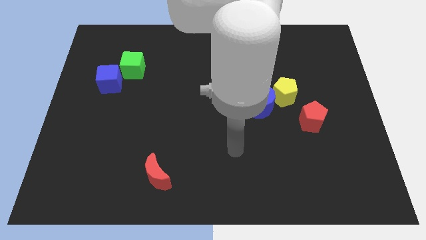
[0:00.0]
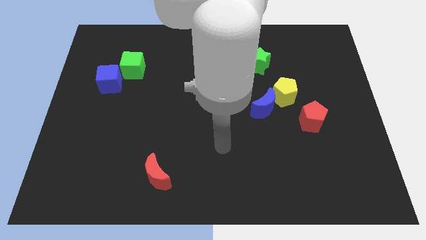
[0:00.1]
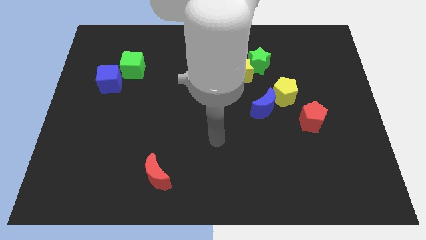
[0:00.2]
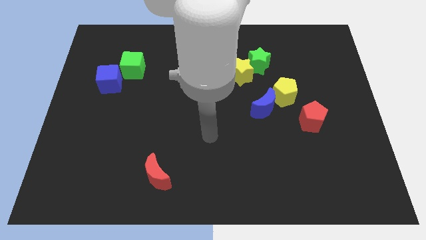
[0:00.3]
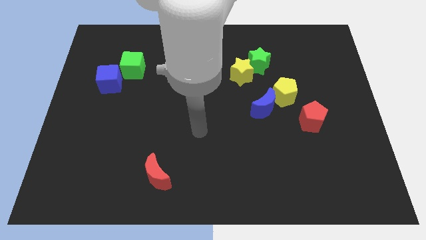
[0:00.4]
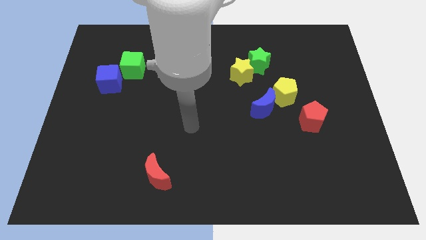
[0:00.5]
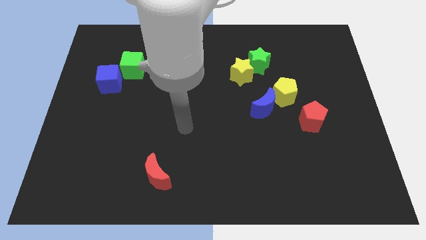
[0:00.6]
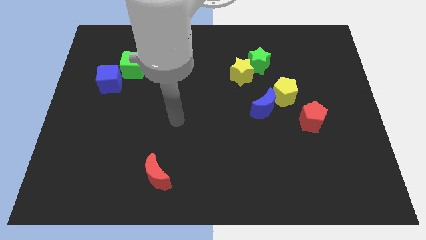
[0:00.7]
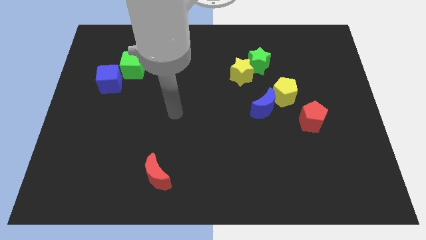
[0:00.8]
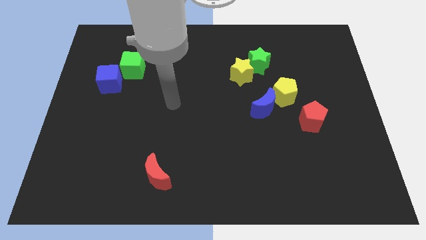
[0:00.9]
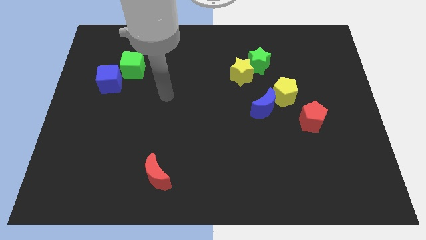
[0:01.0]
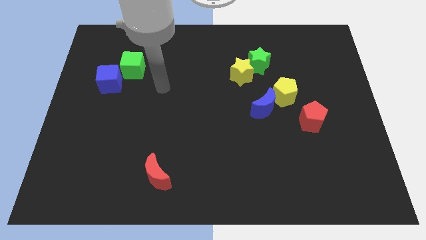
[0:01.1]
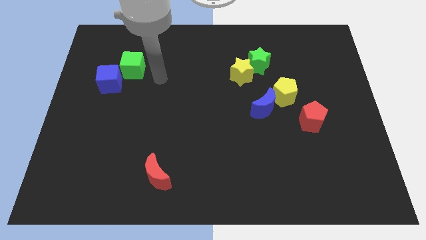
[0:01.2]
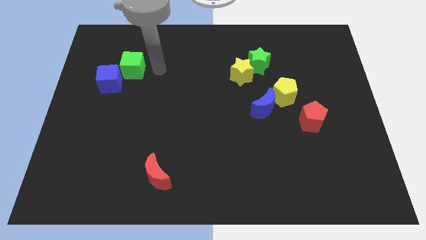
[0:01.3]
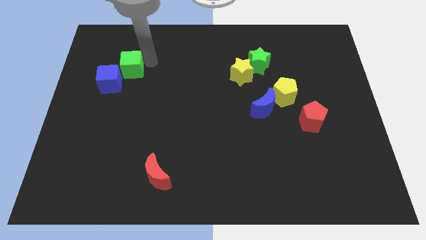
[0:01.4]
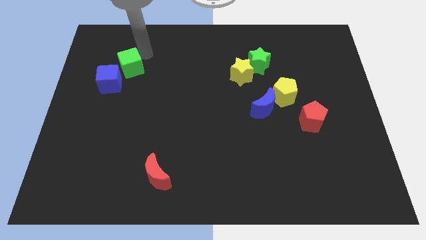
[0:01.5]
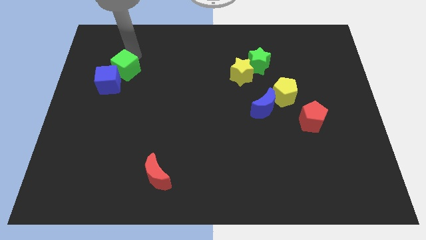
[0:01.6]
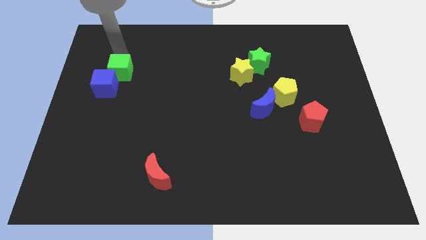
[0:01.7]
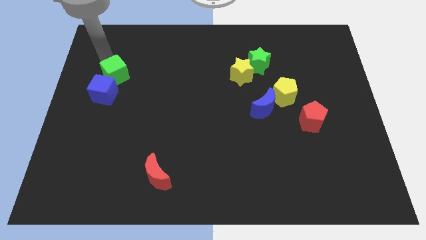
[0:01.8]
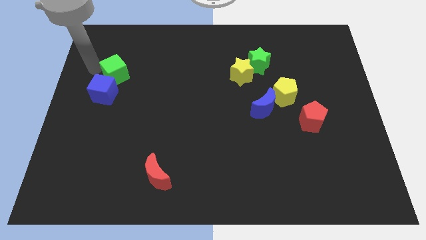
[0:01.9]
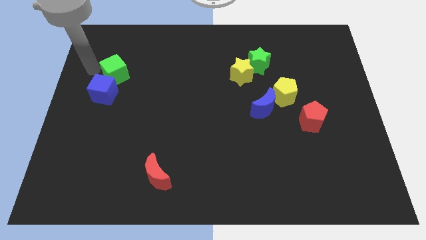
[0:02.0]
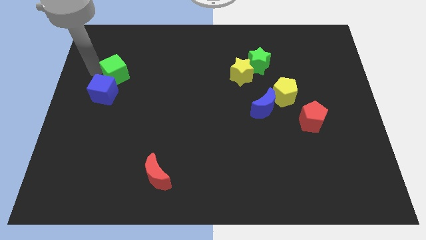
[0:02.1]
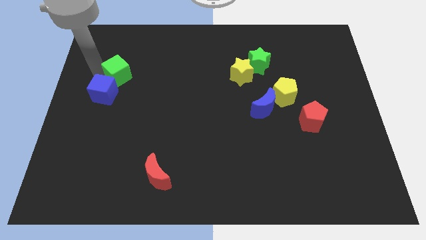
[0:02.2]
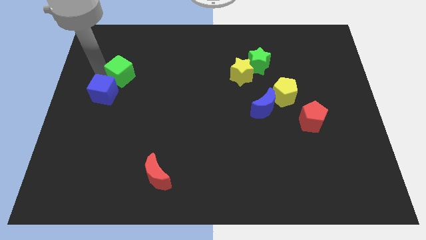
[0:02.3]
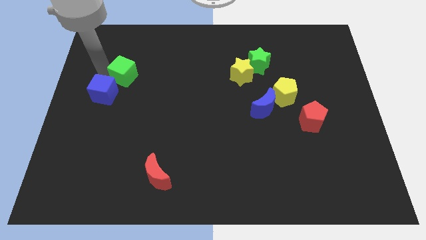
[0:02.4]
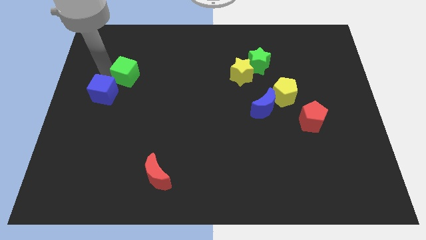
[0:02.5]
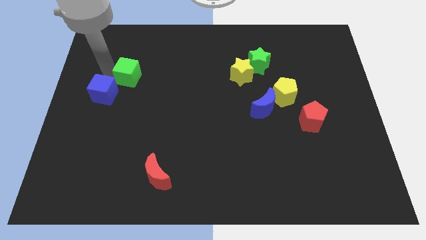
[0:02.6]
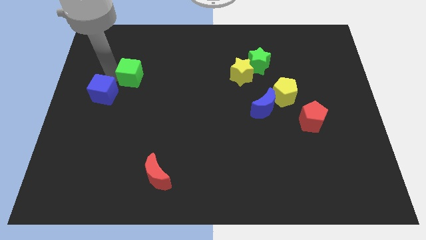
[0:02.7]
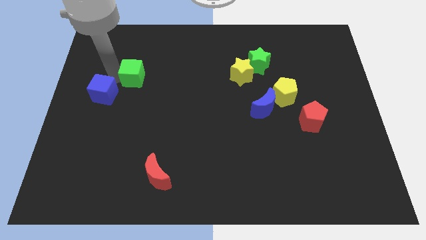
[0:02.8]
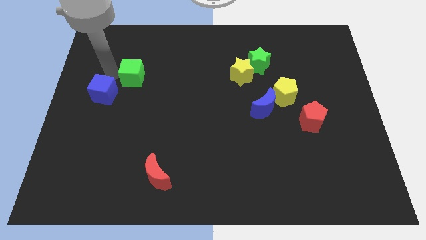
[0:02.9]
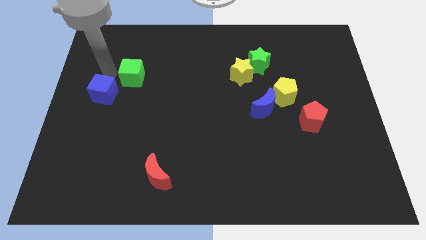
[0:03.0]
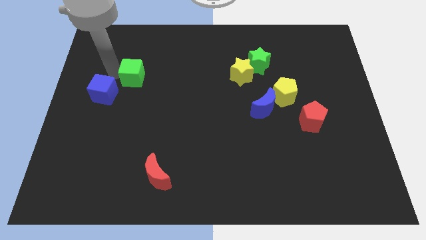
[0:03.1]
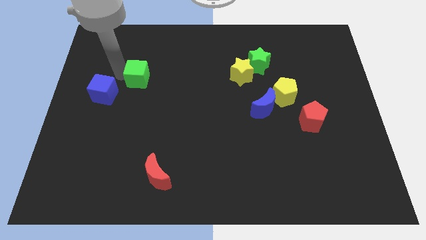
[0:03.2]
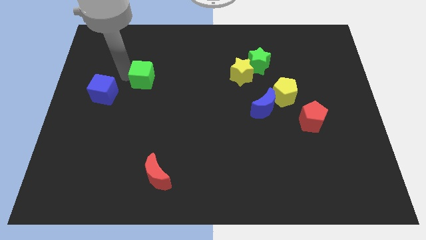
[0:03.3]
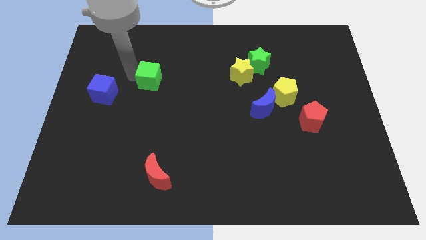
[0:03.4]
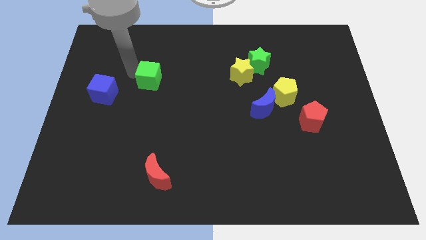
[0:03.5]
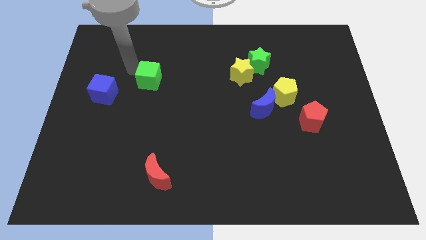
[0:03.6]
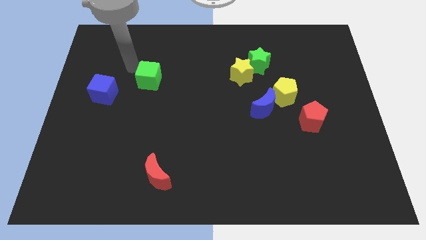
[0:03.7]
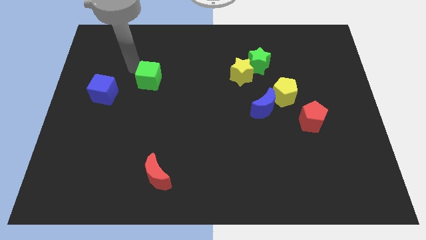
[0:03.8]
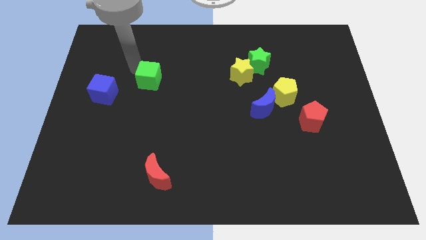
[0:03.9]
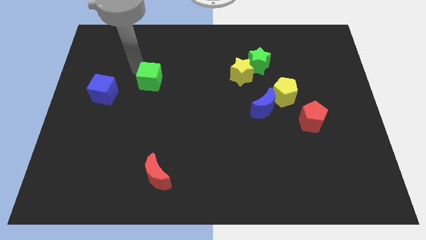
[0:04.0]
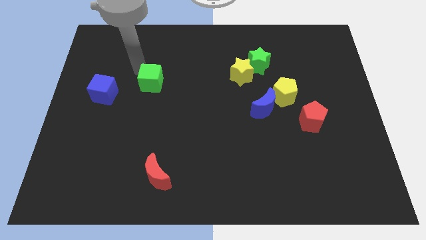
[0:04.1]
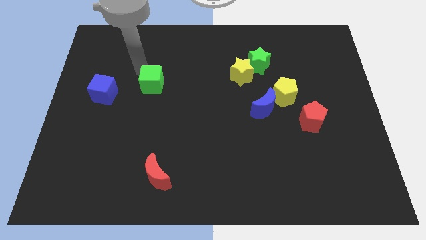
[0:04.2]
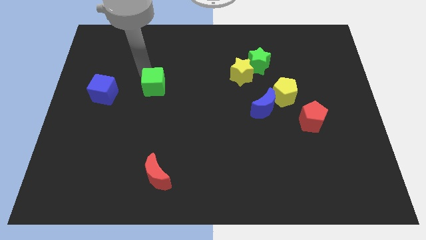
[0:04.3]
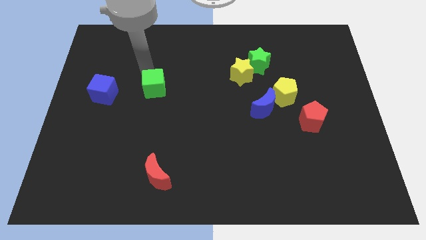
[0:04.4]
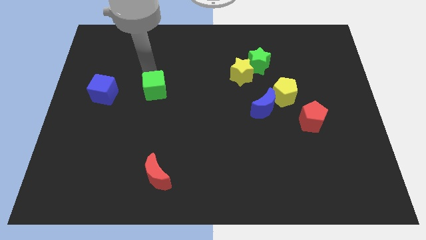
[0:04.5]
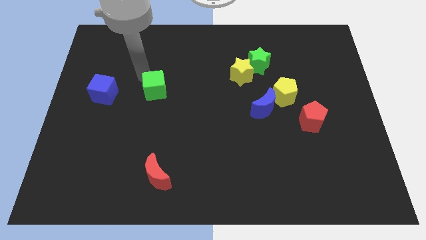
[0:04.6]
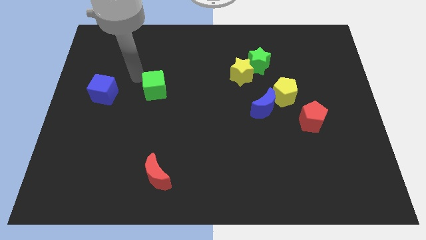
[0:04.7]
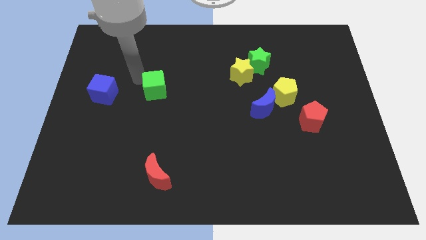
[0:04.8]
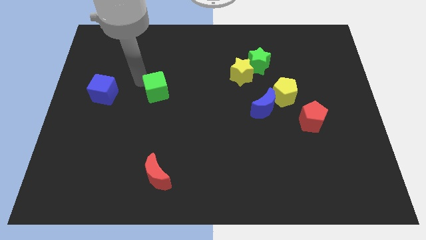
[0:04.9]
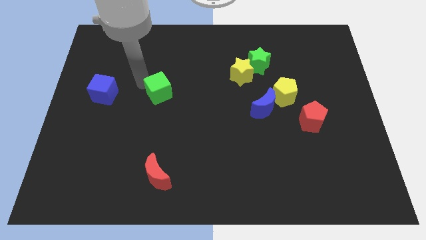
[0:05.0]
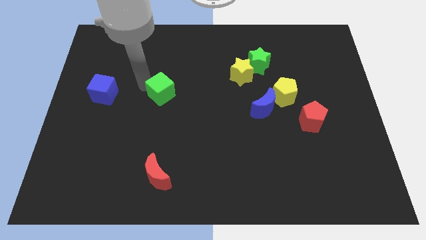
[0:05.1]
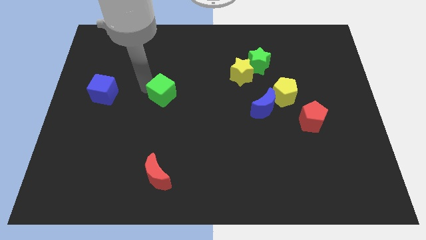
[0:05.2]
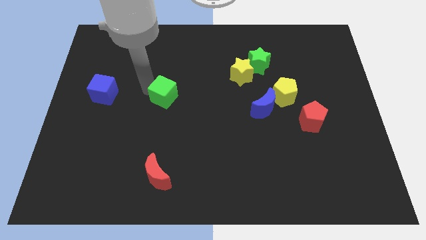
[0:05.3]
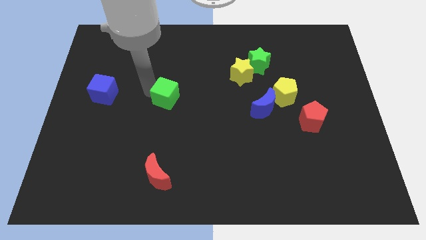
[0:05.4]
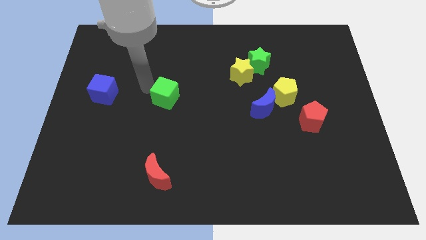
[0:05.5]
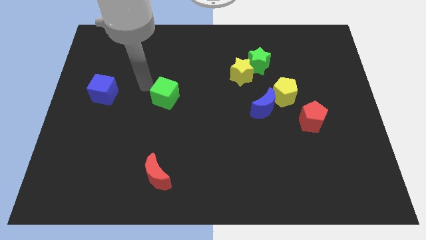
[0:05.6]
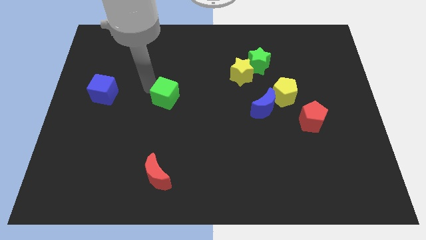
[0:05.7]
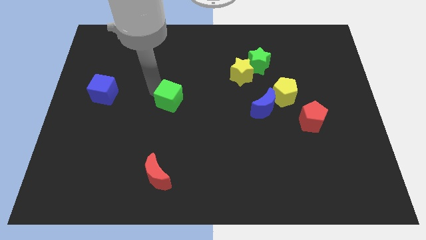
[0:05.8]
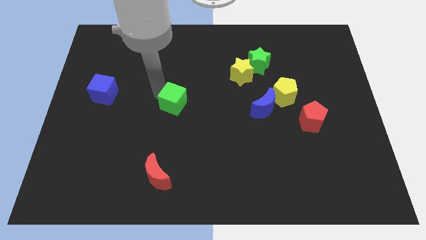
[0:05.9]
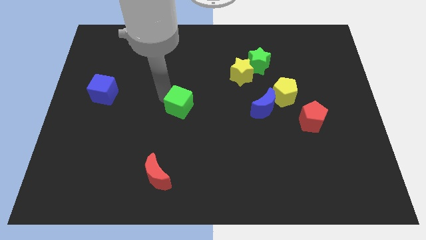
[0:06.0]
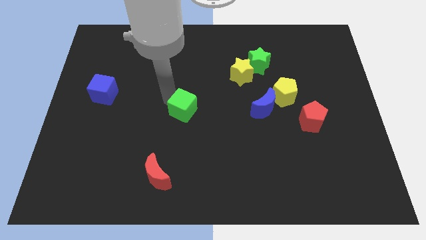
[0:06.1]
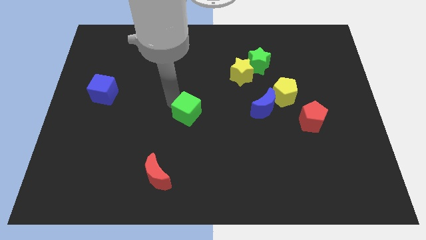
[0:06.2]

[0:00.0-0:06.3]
push the green cube down and then right

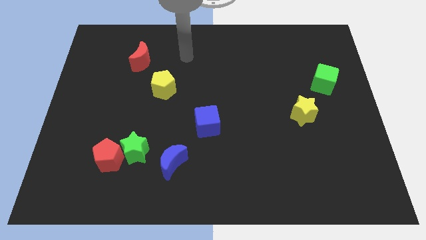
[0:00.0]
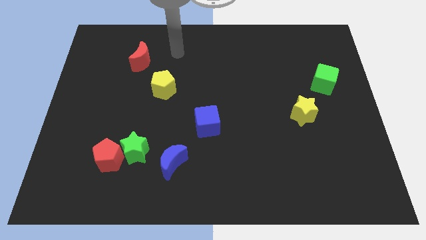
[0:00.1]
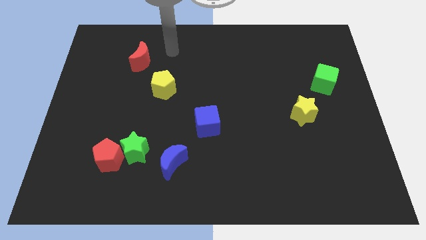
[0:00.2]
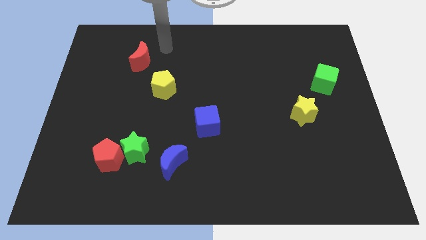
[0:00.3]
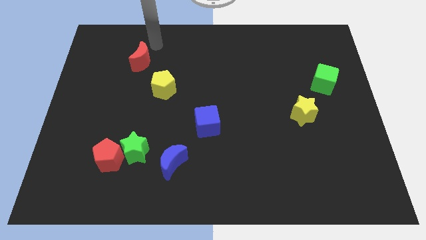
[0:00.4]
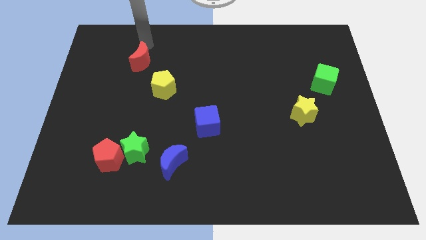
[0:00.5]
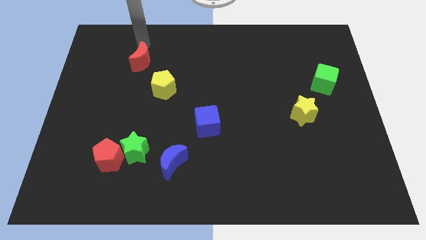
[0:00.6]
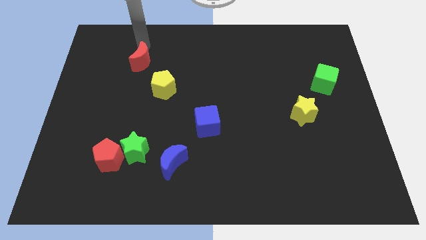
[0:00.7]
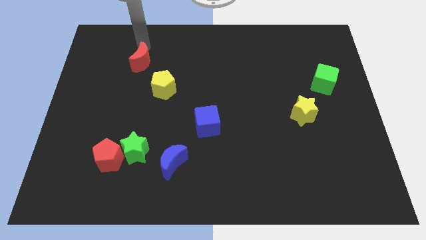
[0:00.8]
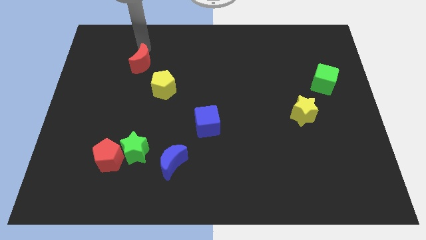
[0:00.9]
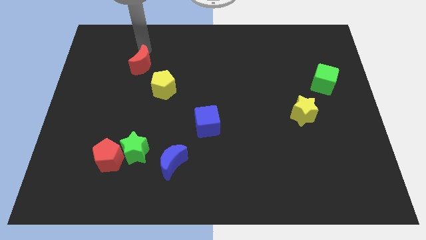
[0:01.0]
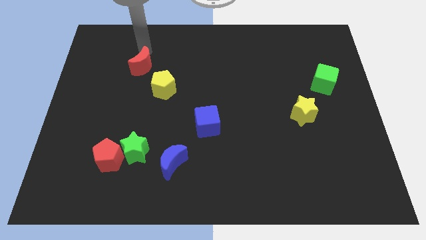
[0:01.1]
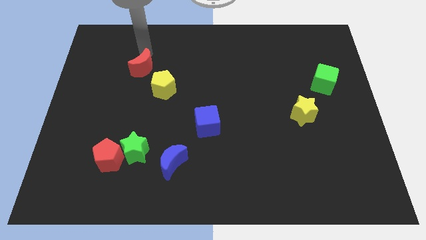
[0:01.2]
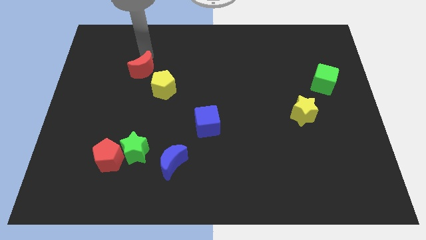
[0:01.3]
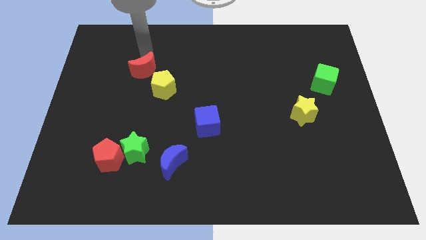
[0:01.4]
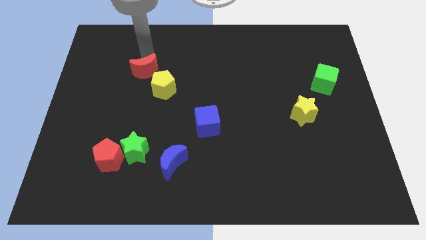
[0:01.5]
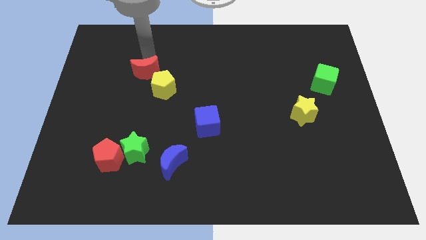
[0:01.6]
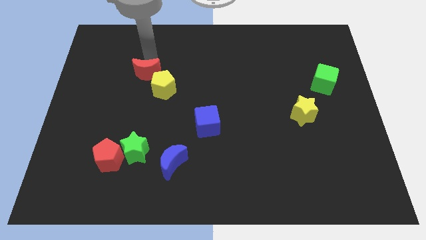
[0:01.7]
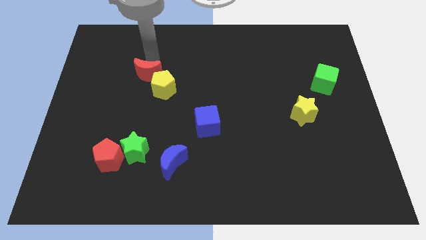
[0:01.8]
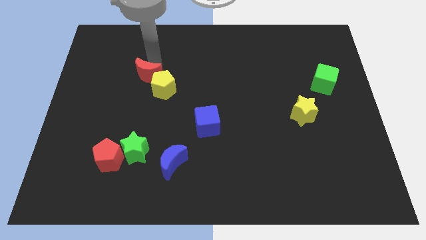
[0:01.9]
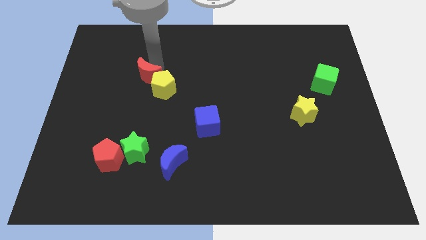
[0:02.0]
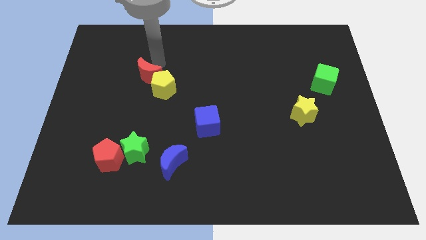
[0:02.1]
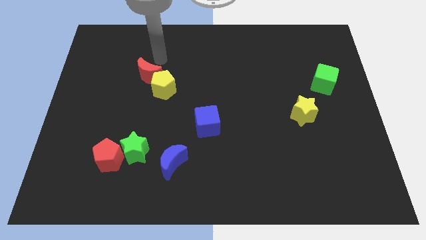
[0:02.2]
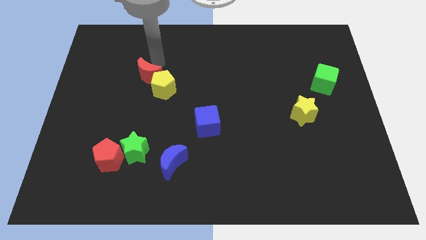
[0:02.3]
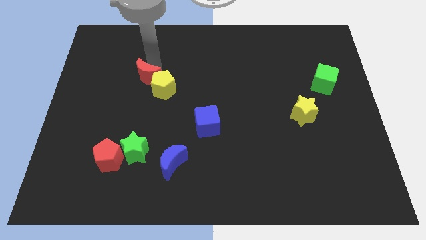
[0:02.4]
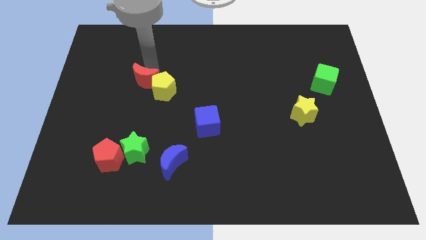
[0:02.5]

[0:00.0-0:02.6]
move the red moon downwards slightly
